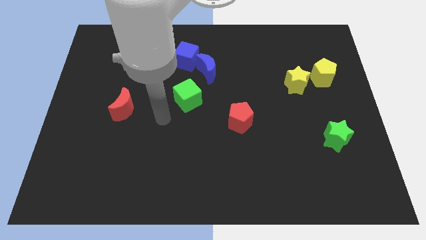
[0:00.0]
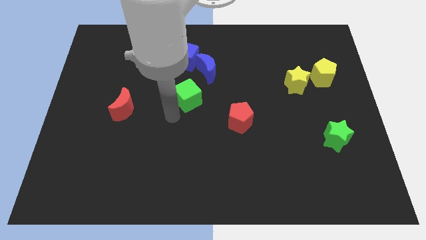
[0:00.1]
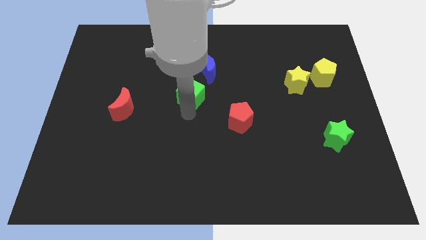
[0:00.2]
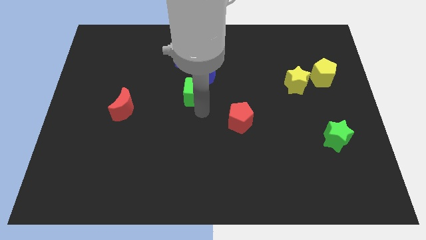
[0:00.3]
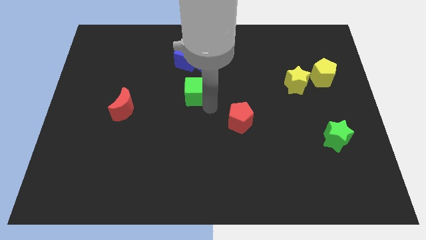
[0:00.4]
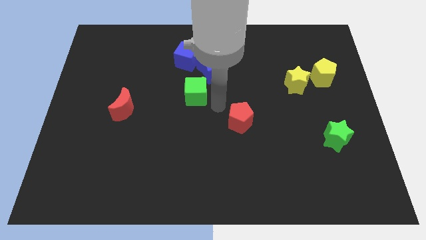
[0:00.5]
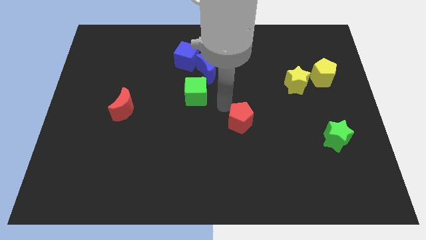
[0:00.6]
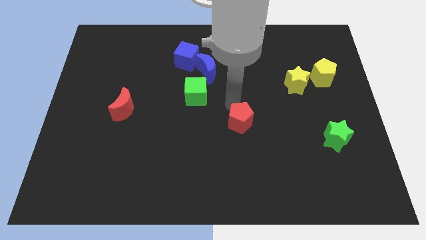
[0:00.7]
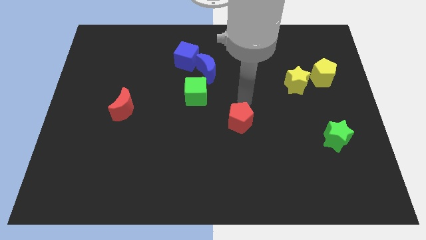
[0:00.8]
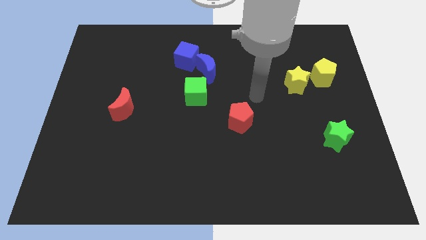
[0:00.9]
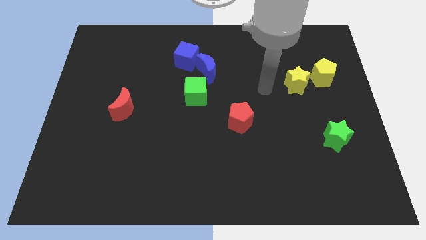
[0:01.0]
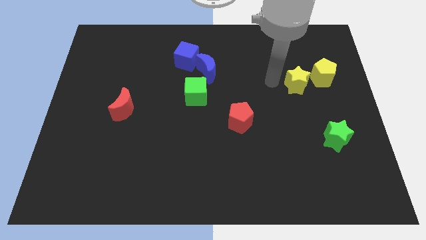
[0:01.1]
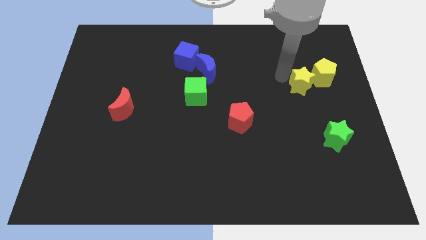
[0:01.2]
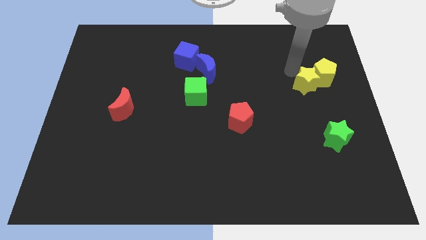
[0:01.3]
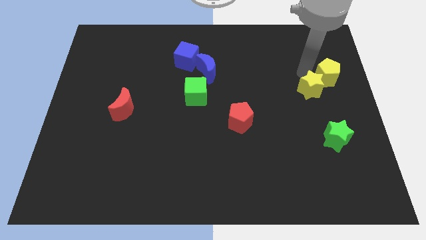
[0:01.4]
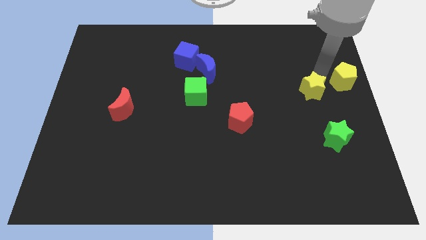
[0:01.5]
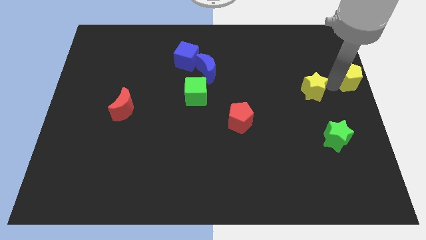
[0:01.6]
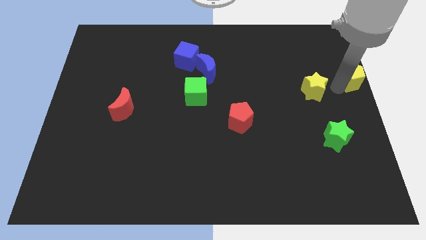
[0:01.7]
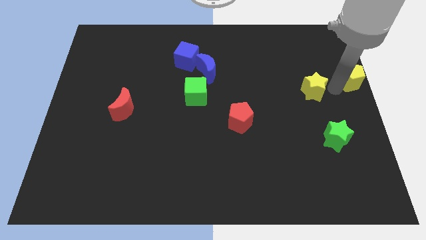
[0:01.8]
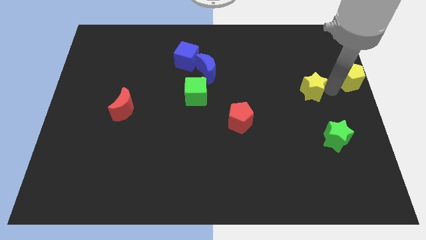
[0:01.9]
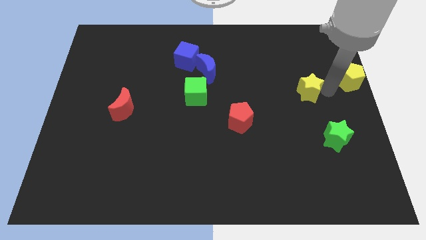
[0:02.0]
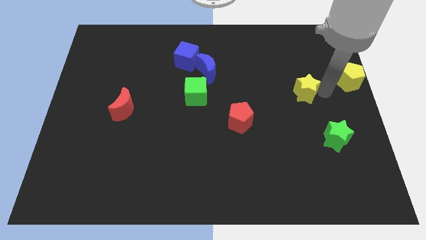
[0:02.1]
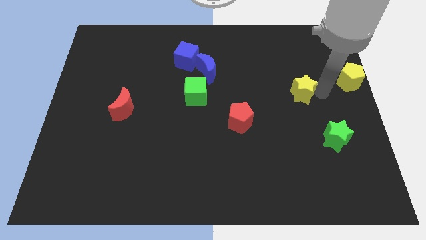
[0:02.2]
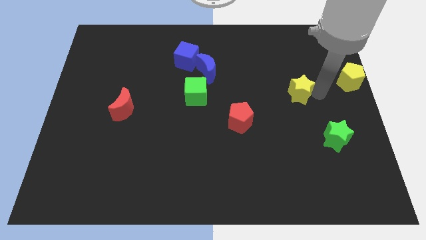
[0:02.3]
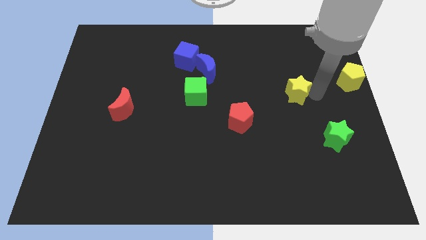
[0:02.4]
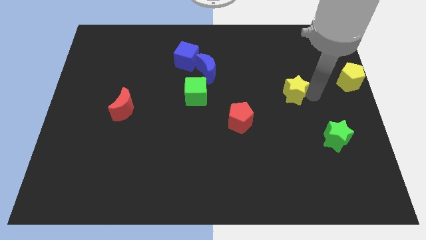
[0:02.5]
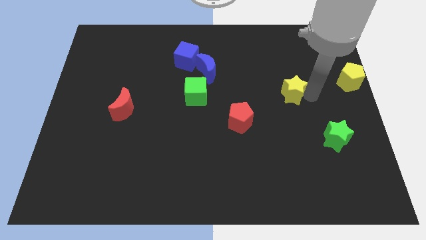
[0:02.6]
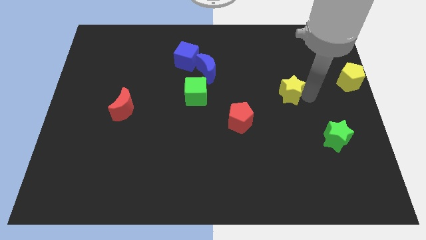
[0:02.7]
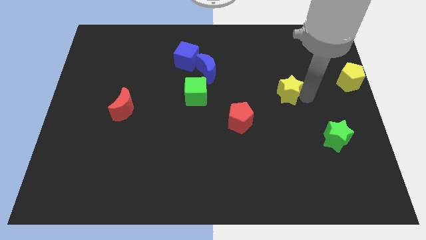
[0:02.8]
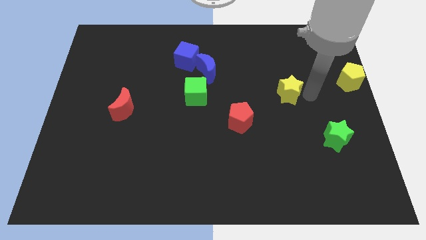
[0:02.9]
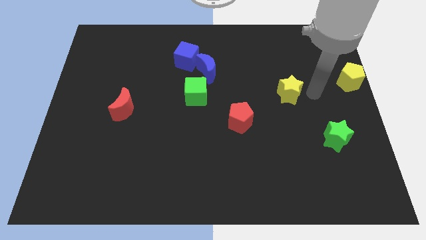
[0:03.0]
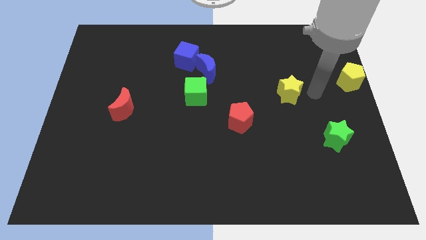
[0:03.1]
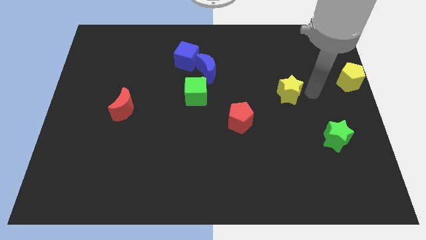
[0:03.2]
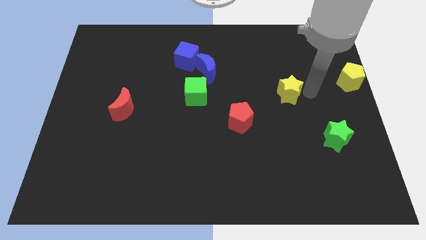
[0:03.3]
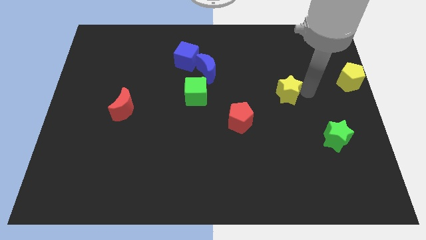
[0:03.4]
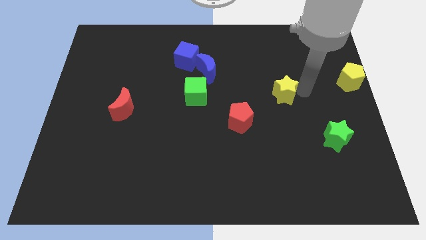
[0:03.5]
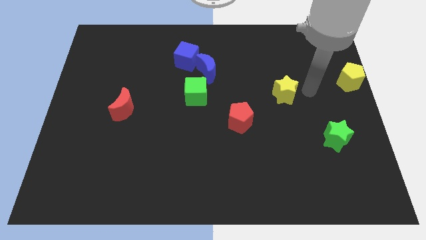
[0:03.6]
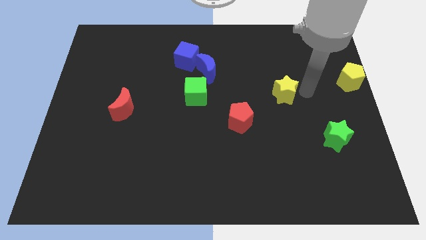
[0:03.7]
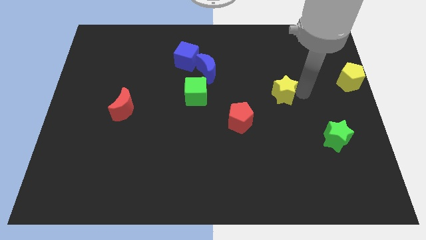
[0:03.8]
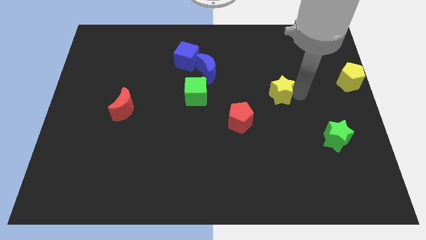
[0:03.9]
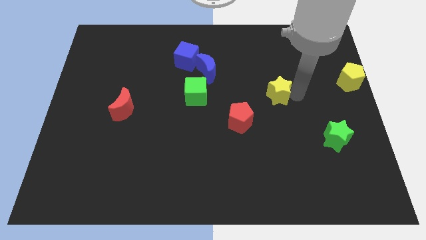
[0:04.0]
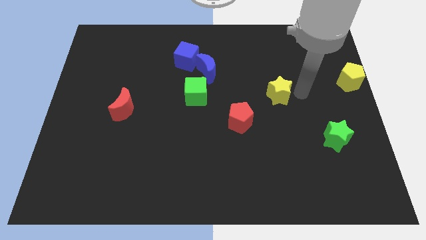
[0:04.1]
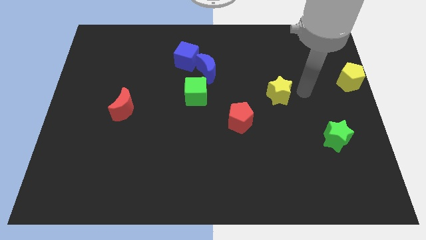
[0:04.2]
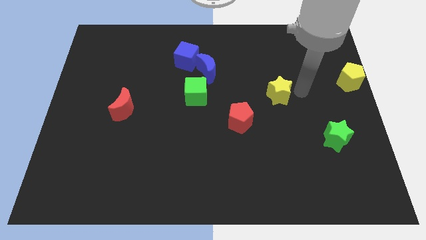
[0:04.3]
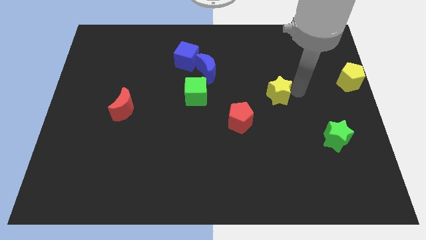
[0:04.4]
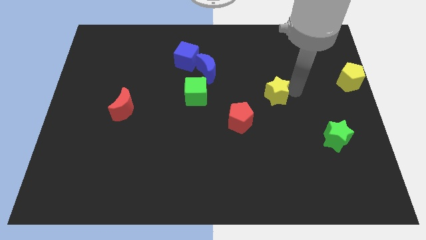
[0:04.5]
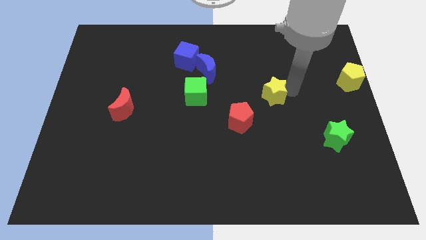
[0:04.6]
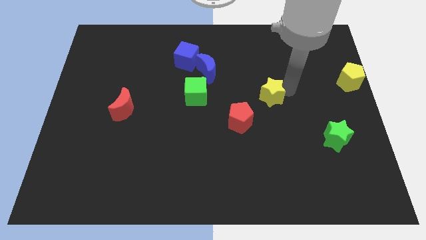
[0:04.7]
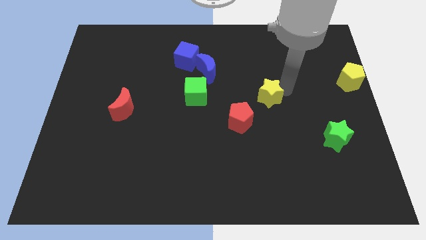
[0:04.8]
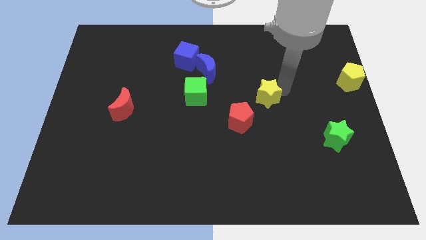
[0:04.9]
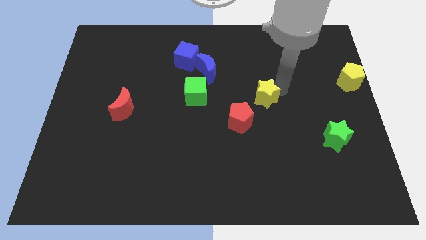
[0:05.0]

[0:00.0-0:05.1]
slide the yellow star to the middle

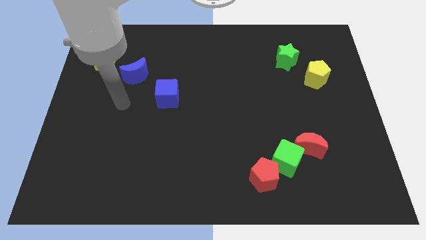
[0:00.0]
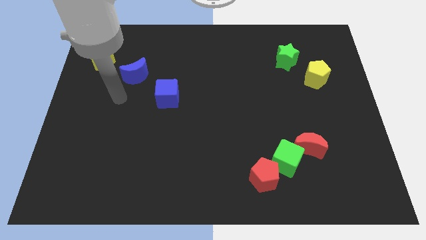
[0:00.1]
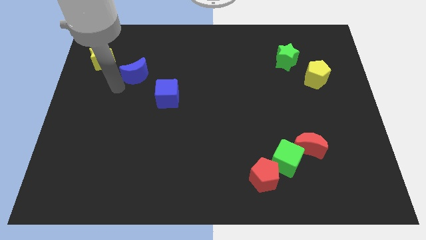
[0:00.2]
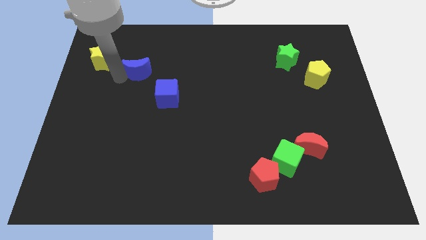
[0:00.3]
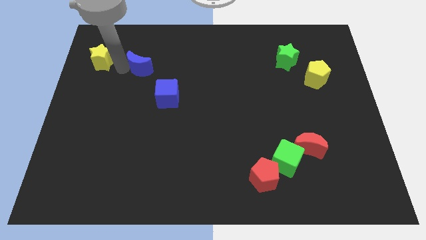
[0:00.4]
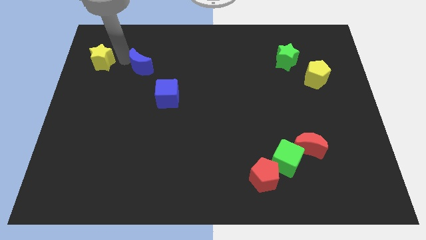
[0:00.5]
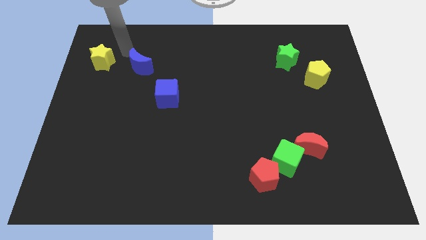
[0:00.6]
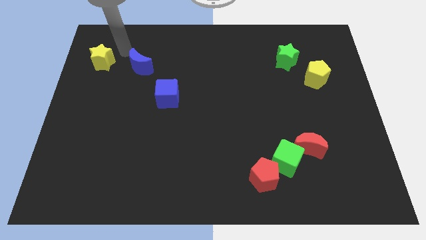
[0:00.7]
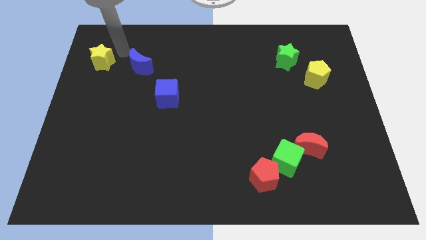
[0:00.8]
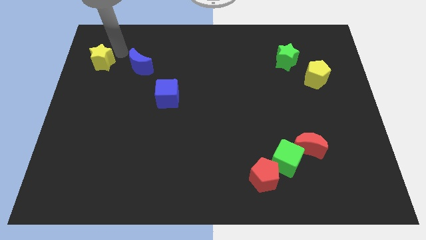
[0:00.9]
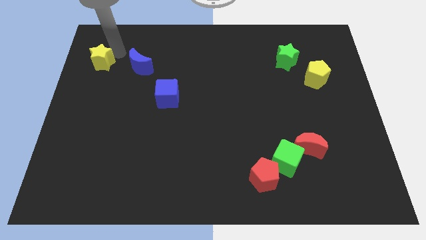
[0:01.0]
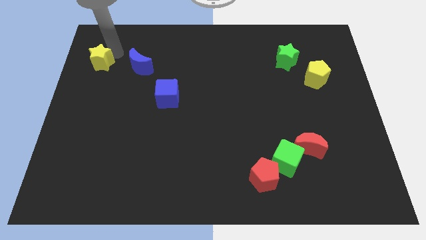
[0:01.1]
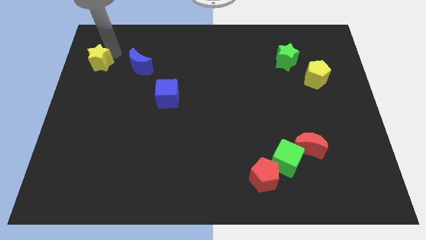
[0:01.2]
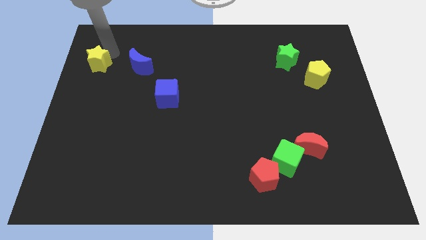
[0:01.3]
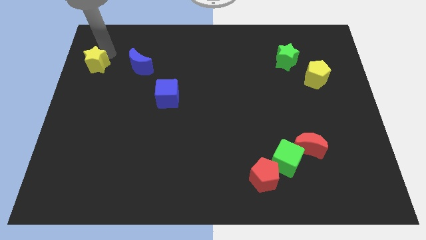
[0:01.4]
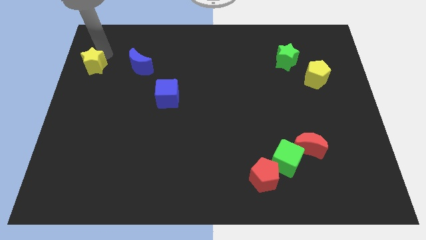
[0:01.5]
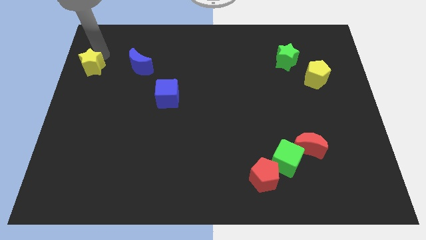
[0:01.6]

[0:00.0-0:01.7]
put the yellow star to the left side of the board
